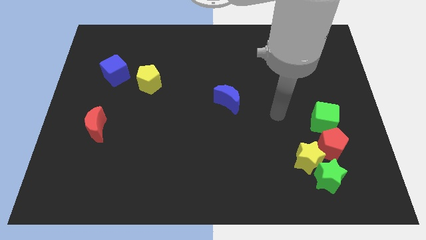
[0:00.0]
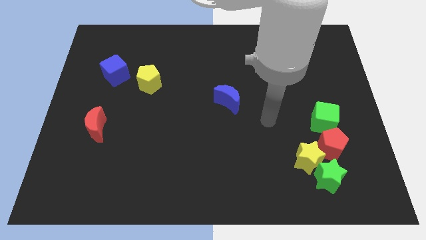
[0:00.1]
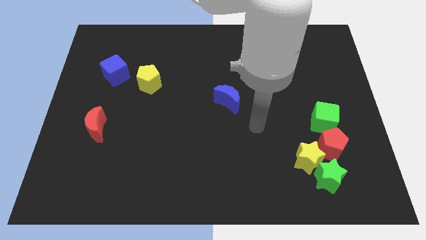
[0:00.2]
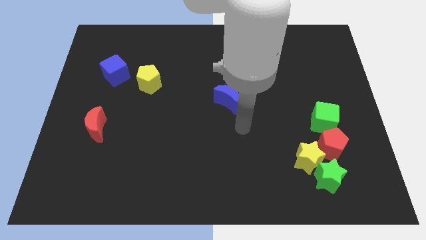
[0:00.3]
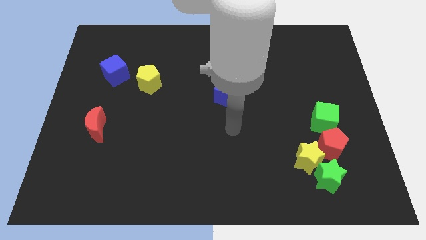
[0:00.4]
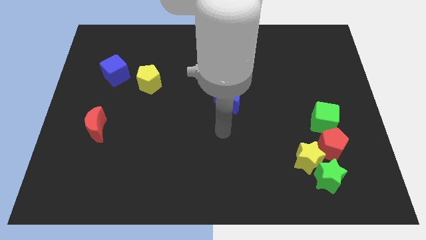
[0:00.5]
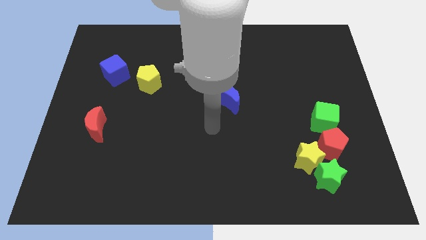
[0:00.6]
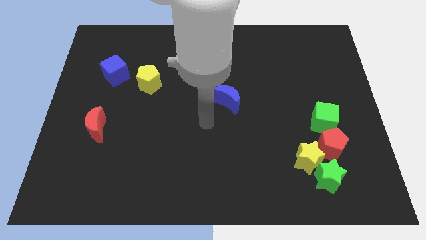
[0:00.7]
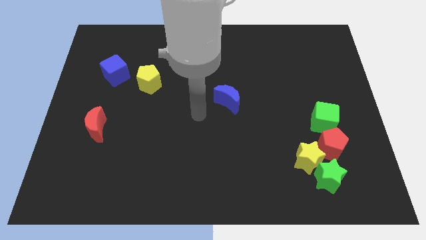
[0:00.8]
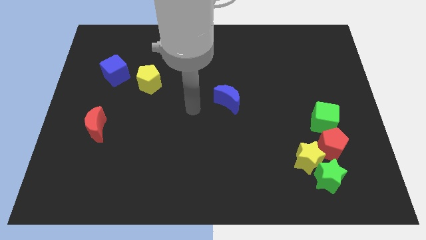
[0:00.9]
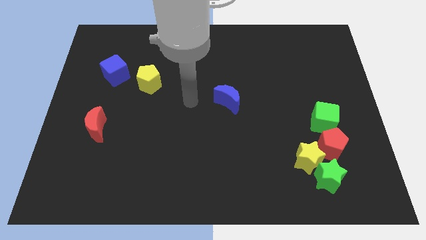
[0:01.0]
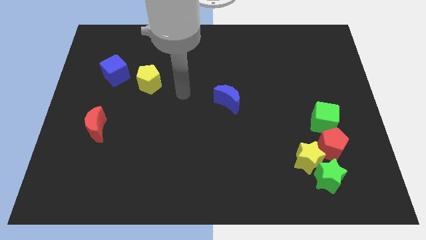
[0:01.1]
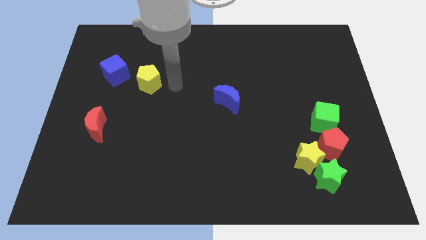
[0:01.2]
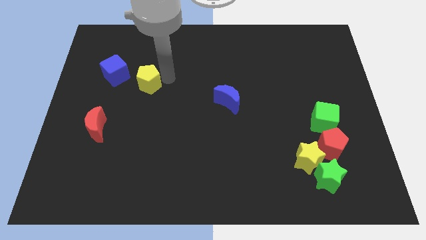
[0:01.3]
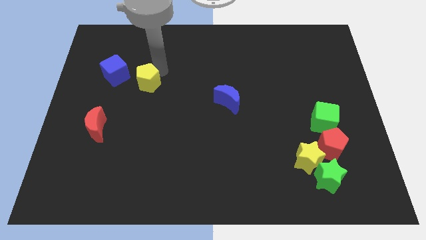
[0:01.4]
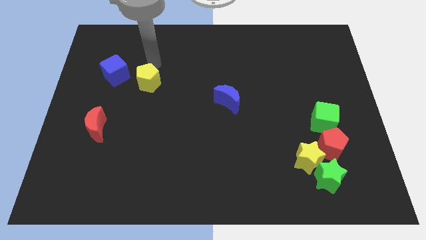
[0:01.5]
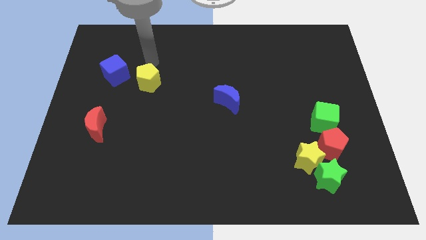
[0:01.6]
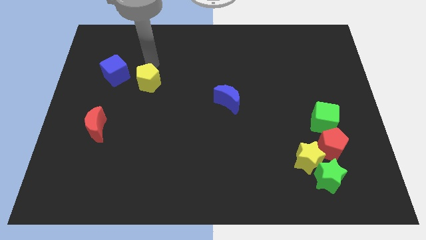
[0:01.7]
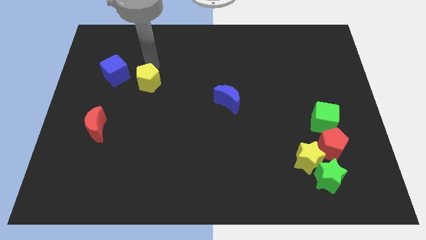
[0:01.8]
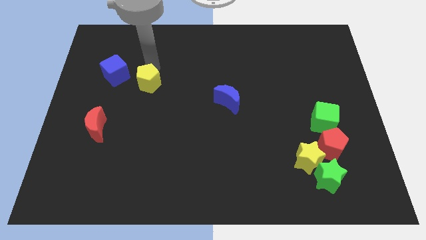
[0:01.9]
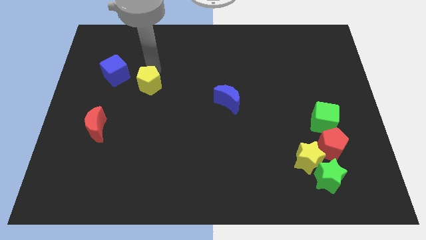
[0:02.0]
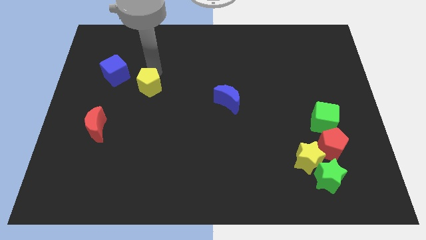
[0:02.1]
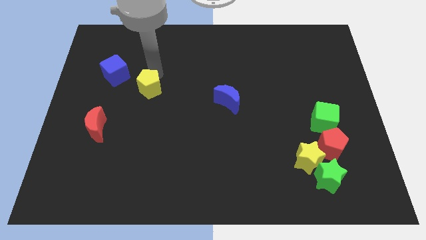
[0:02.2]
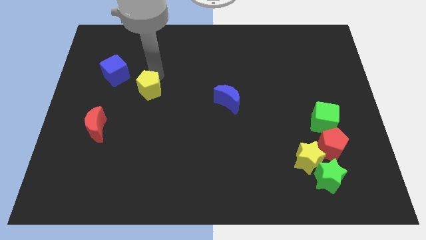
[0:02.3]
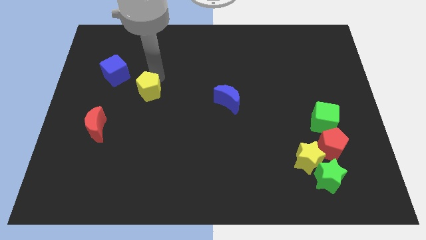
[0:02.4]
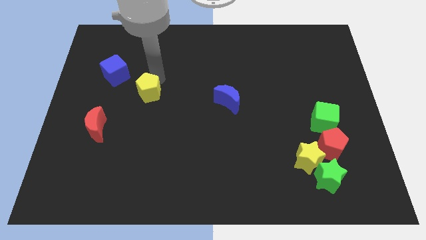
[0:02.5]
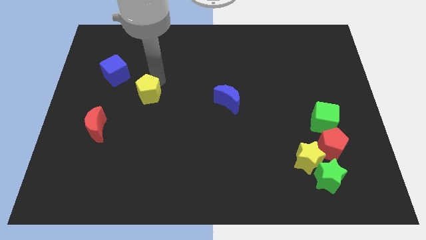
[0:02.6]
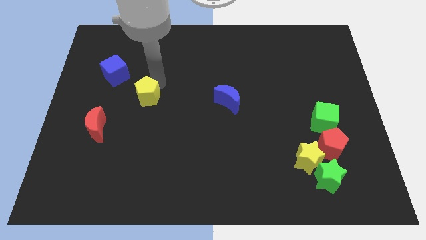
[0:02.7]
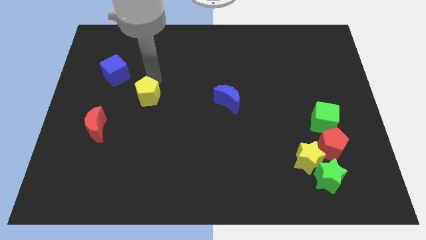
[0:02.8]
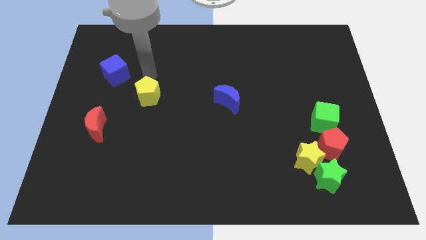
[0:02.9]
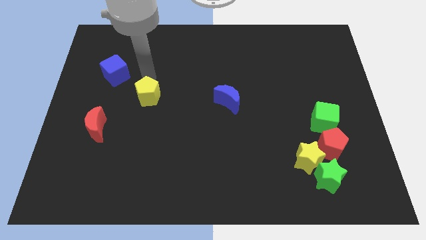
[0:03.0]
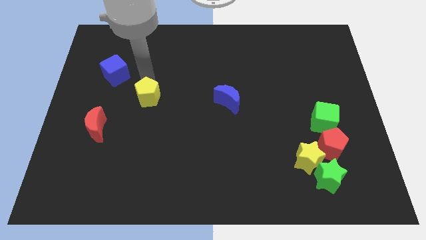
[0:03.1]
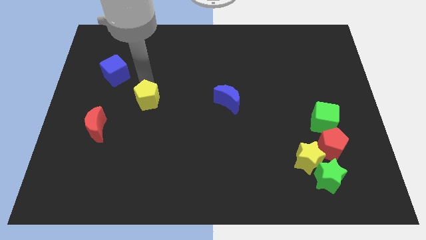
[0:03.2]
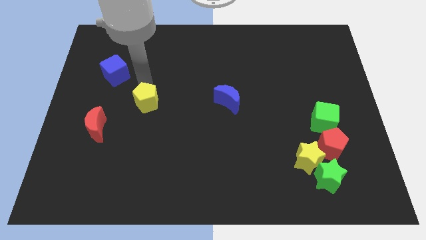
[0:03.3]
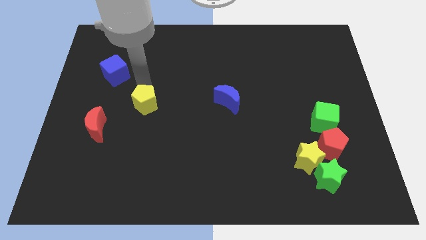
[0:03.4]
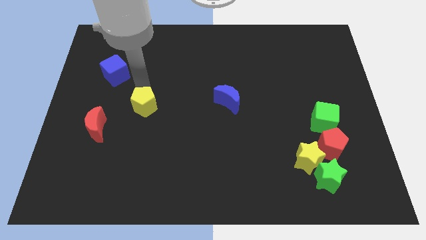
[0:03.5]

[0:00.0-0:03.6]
push the yellow pentagon a little bit down

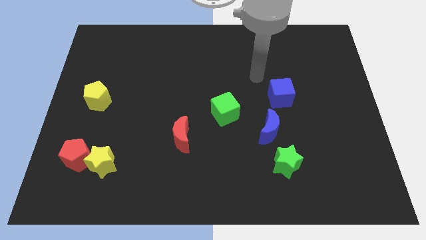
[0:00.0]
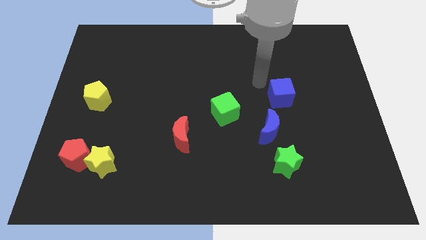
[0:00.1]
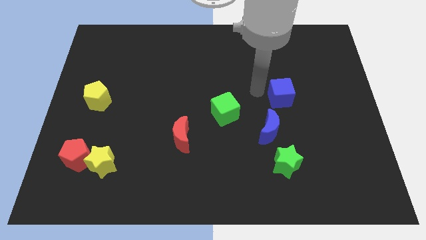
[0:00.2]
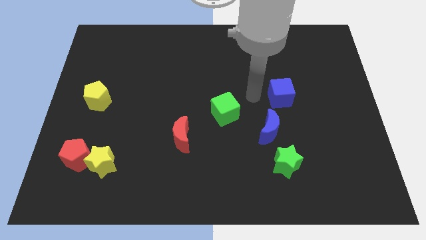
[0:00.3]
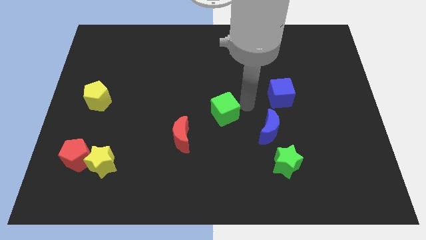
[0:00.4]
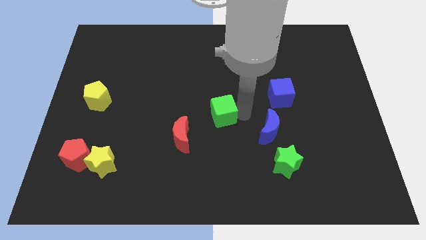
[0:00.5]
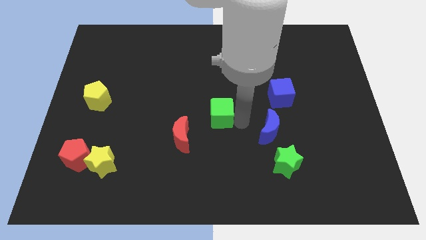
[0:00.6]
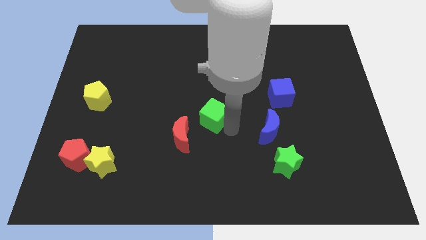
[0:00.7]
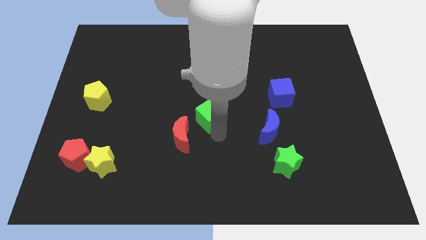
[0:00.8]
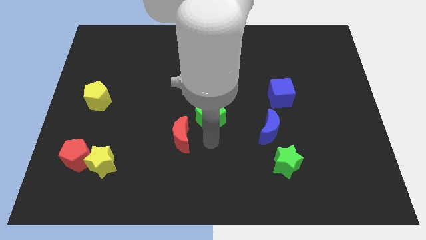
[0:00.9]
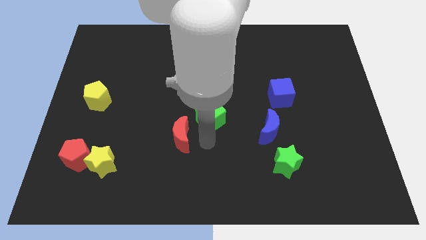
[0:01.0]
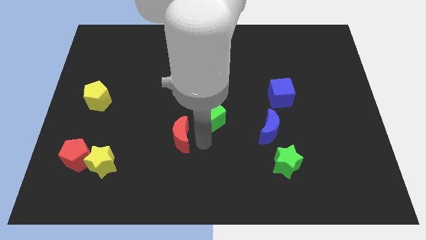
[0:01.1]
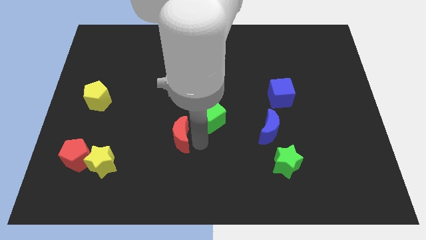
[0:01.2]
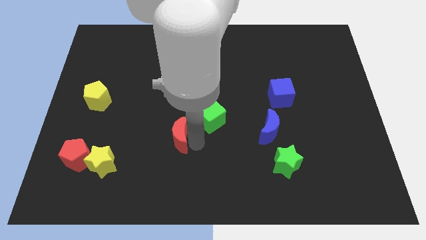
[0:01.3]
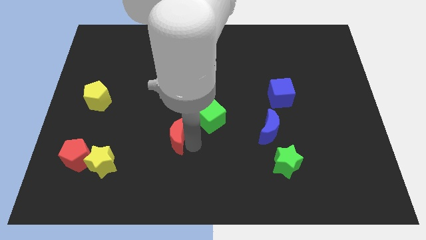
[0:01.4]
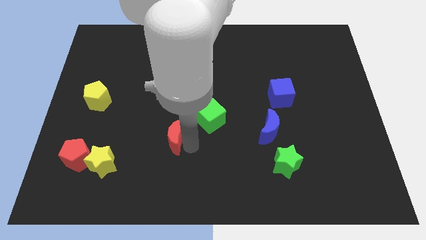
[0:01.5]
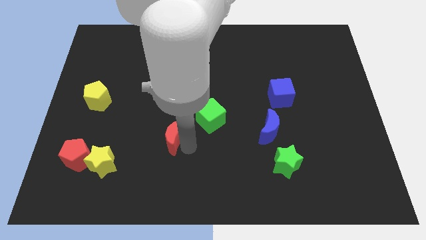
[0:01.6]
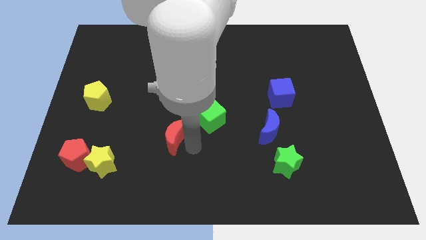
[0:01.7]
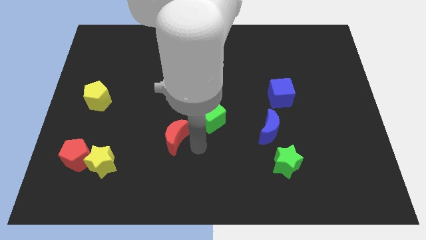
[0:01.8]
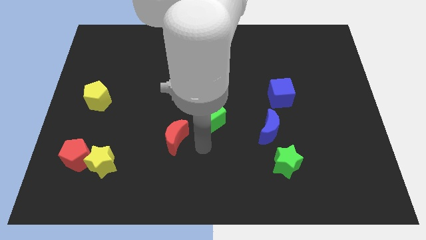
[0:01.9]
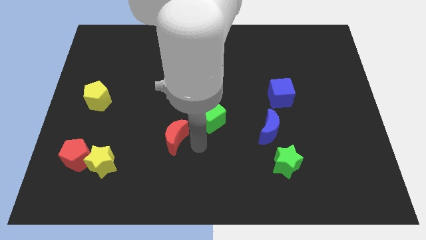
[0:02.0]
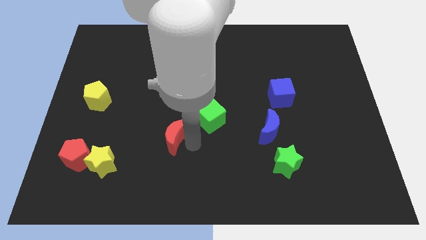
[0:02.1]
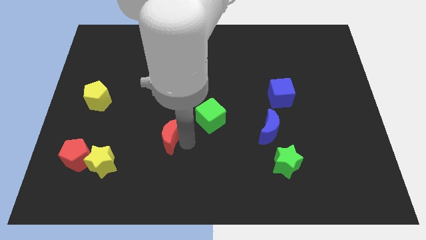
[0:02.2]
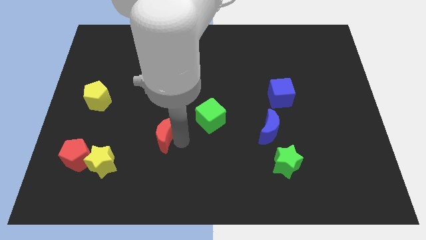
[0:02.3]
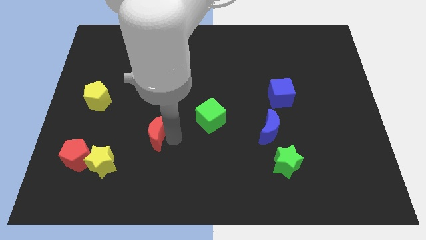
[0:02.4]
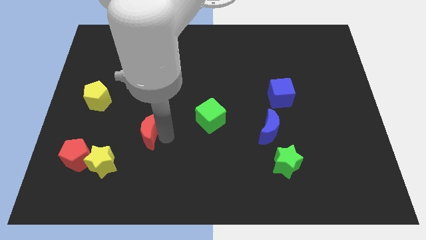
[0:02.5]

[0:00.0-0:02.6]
push the red moon to the left somewhat

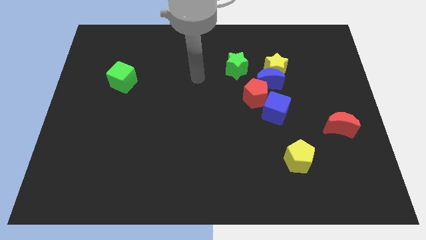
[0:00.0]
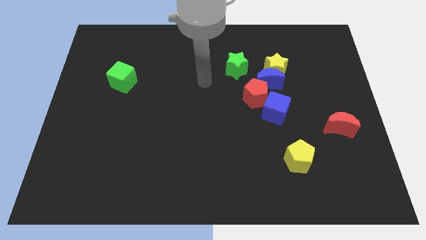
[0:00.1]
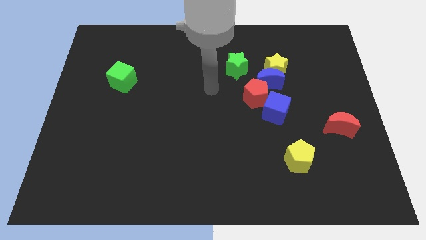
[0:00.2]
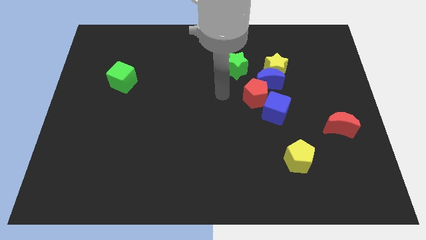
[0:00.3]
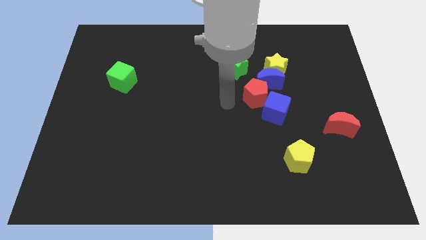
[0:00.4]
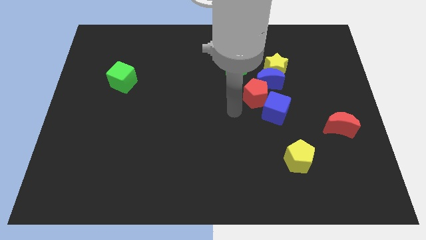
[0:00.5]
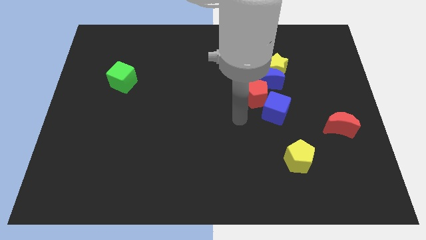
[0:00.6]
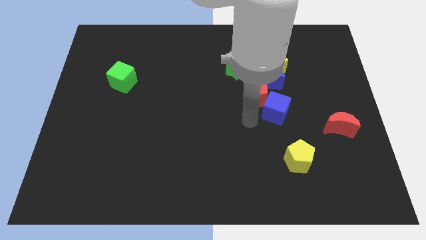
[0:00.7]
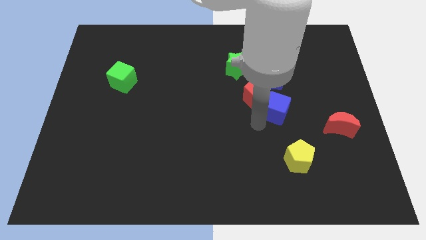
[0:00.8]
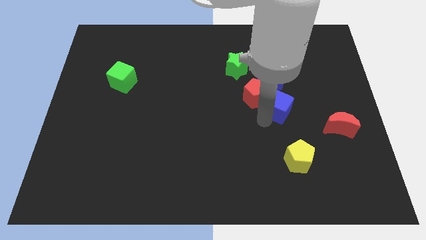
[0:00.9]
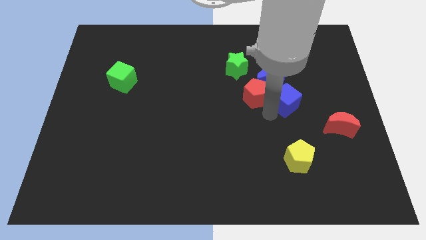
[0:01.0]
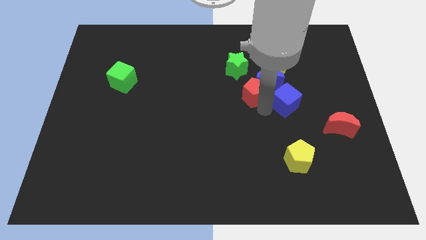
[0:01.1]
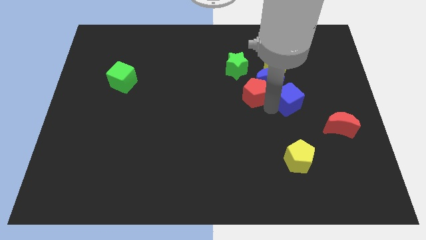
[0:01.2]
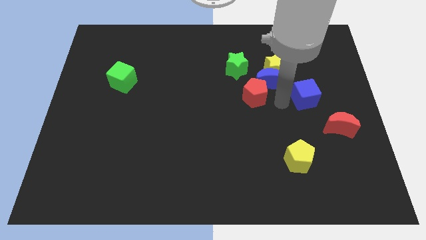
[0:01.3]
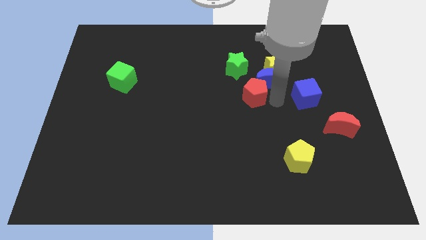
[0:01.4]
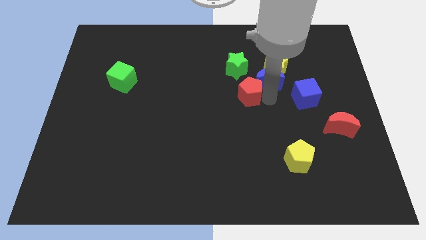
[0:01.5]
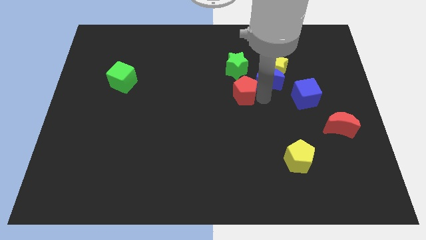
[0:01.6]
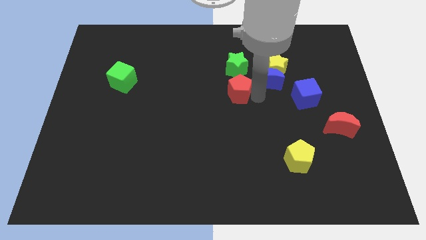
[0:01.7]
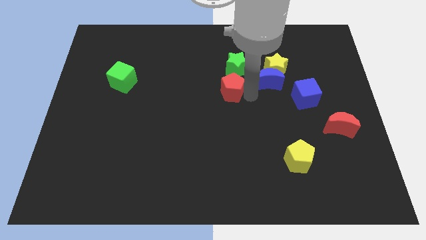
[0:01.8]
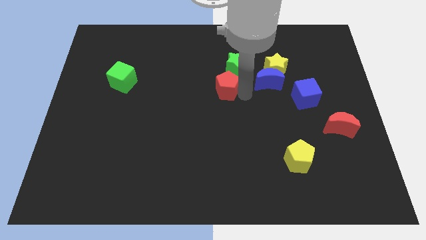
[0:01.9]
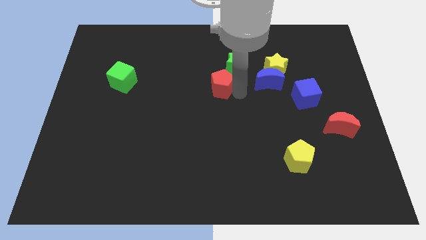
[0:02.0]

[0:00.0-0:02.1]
slightly slide the red pentagon upwards and left diagonally

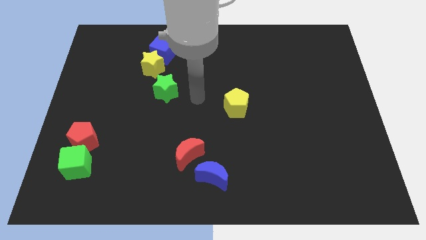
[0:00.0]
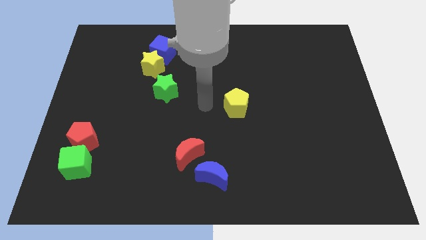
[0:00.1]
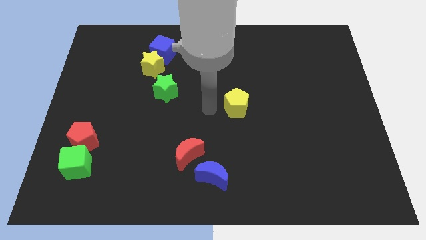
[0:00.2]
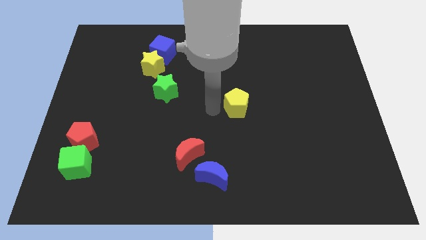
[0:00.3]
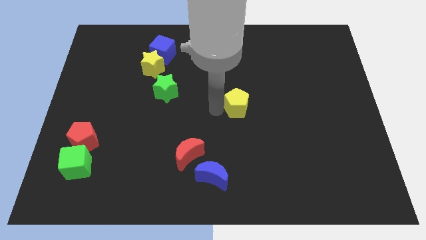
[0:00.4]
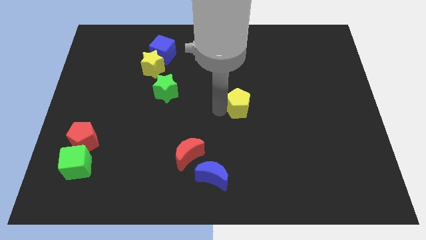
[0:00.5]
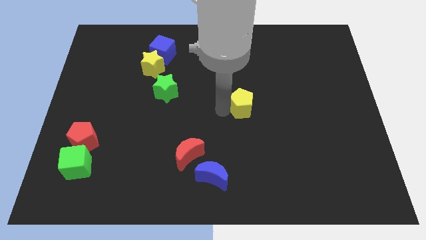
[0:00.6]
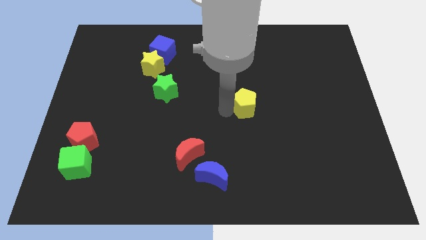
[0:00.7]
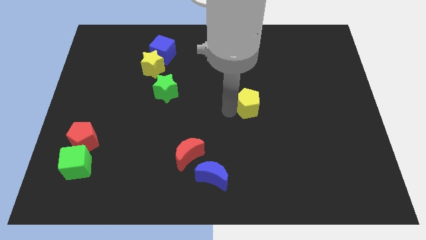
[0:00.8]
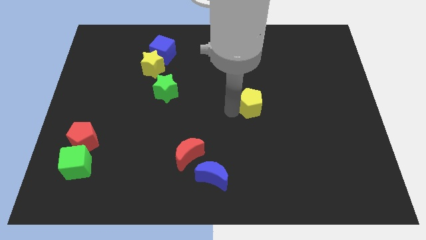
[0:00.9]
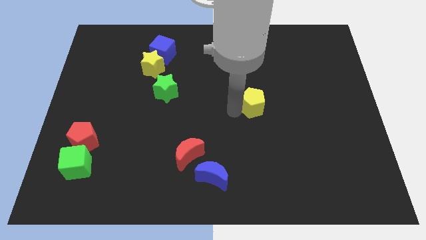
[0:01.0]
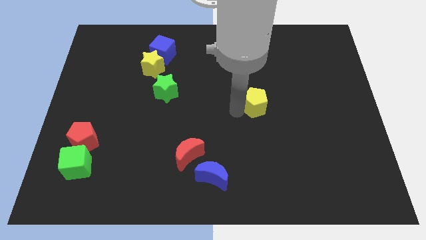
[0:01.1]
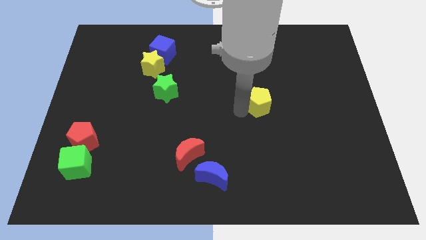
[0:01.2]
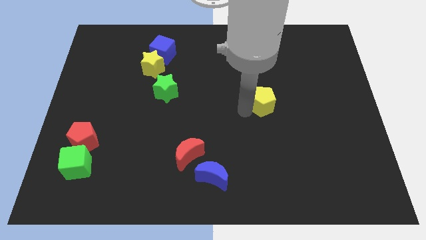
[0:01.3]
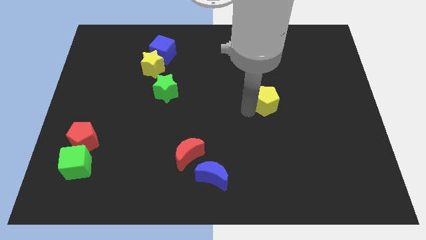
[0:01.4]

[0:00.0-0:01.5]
slightly move the yellow pentagon to the right
